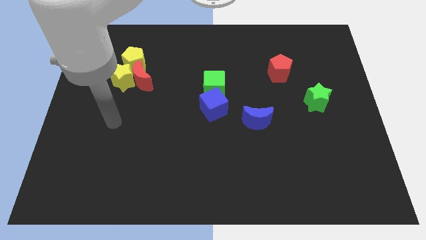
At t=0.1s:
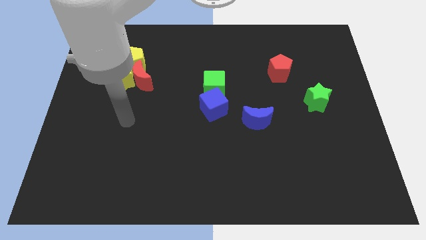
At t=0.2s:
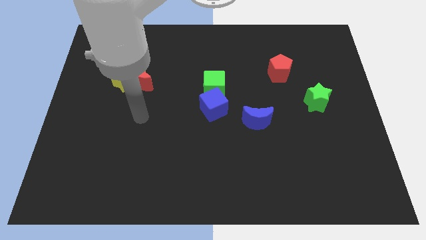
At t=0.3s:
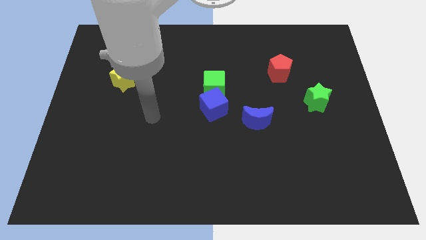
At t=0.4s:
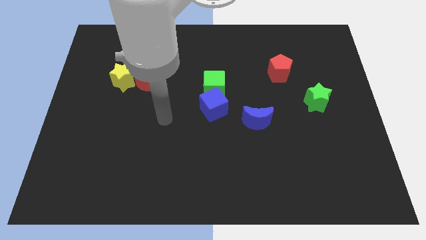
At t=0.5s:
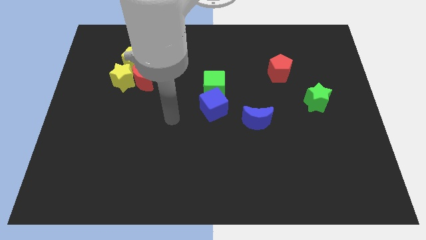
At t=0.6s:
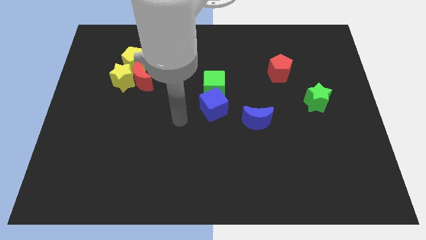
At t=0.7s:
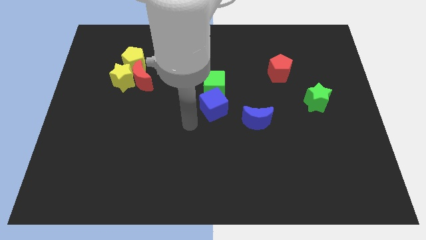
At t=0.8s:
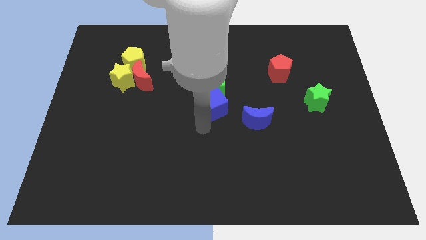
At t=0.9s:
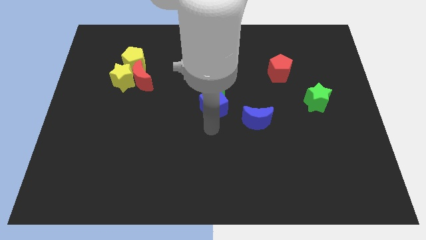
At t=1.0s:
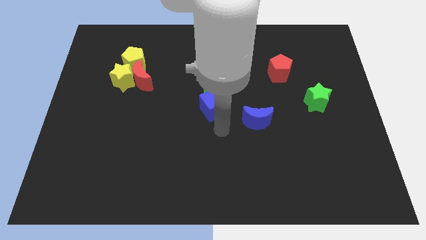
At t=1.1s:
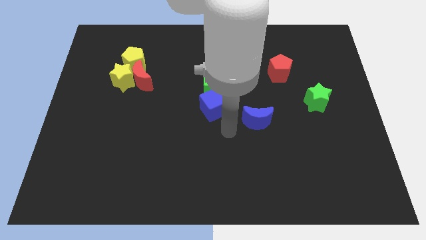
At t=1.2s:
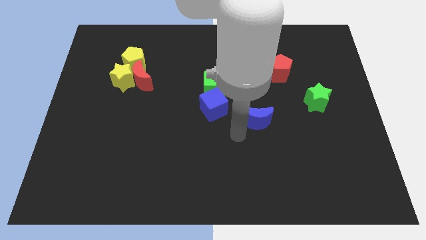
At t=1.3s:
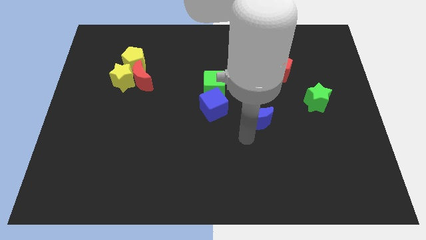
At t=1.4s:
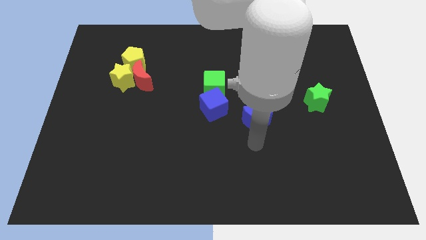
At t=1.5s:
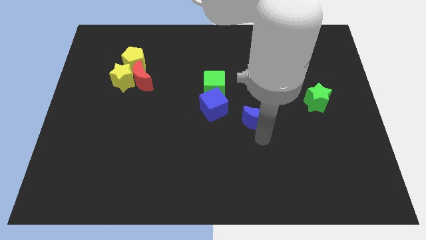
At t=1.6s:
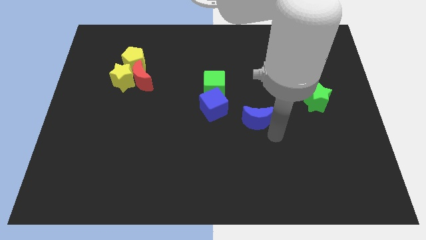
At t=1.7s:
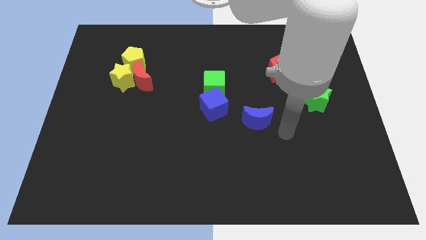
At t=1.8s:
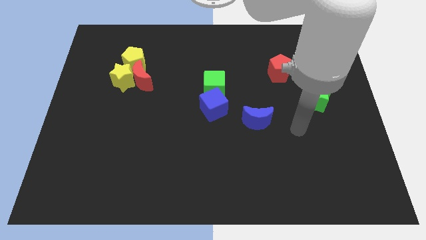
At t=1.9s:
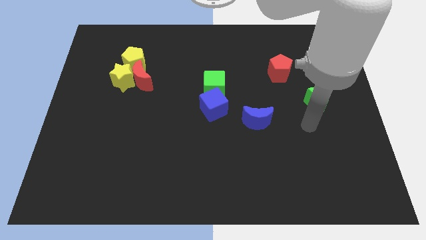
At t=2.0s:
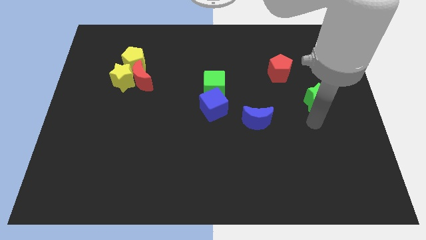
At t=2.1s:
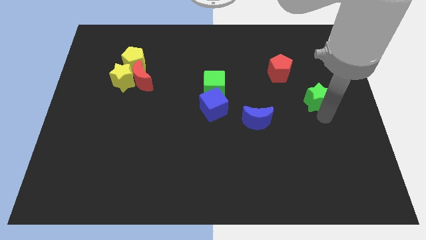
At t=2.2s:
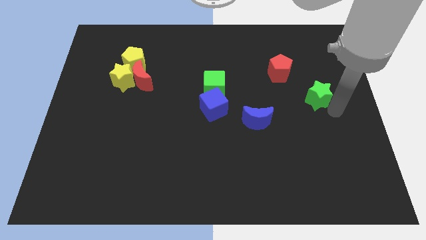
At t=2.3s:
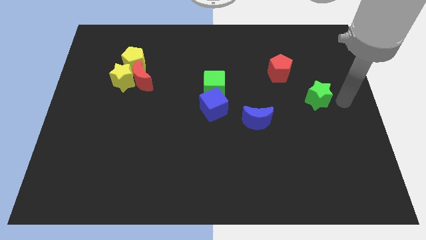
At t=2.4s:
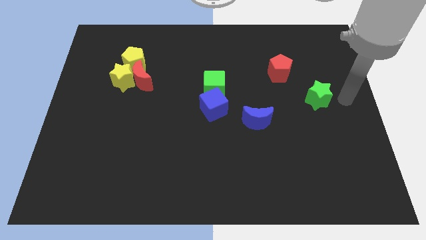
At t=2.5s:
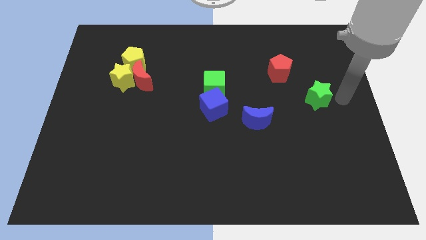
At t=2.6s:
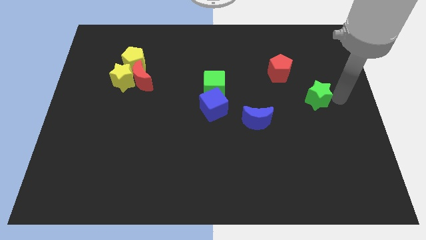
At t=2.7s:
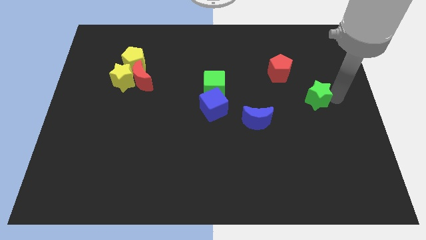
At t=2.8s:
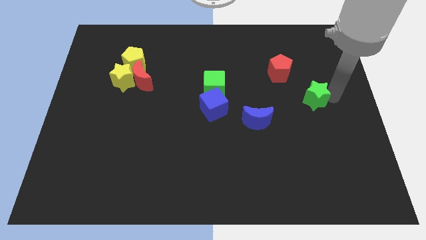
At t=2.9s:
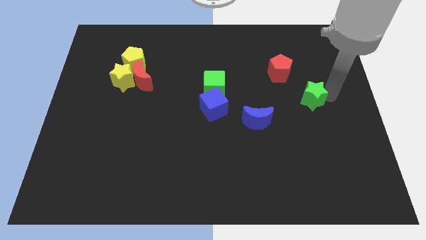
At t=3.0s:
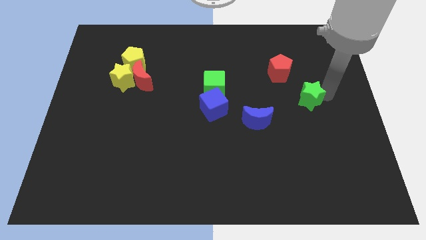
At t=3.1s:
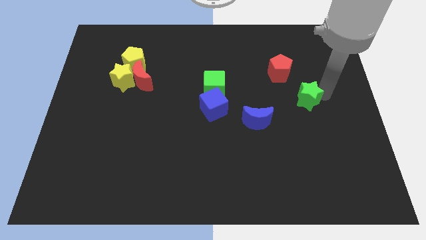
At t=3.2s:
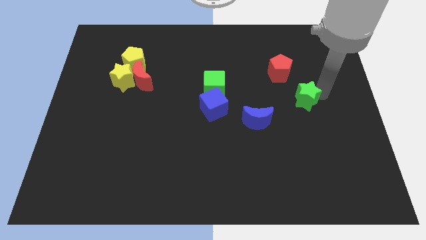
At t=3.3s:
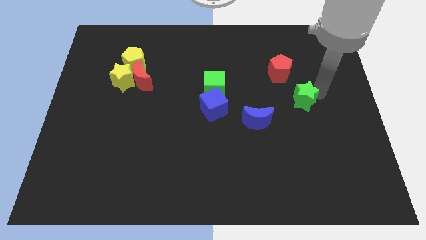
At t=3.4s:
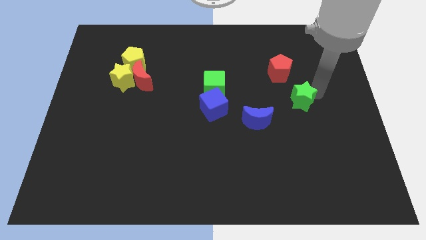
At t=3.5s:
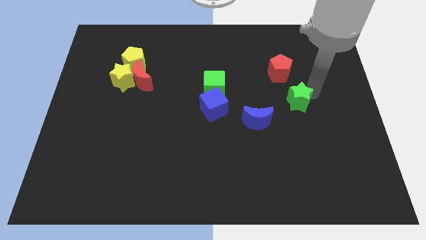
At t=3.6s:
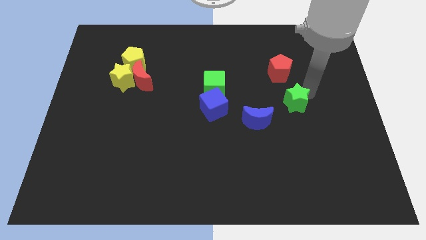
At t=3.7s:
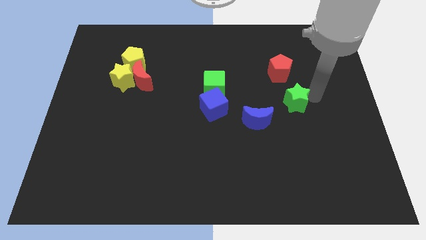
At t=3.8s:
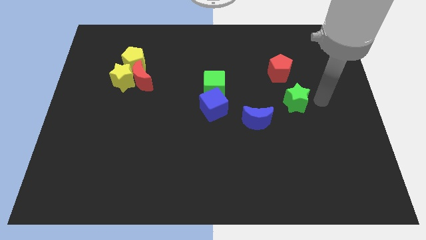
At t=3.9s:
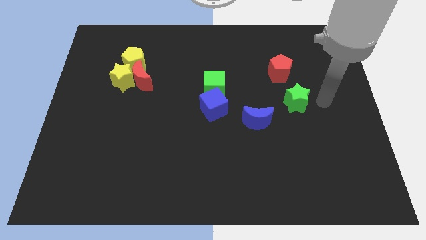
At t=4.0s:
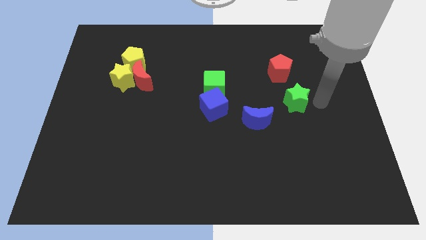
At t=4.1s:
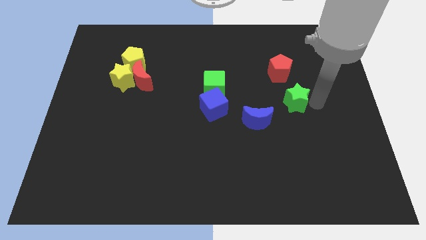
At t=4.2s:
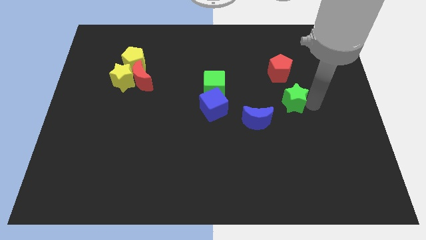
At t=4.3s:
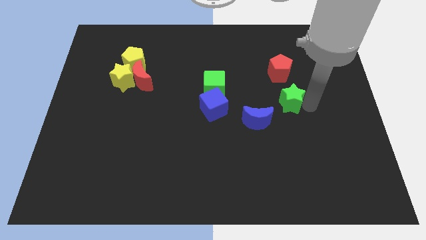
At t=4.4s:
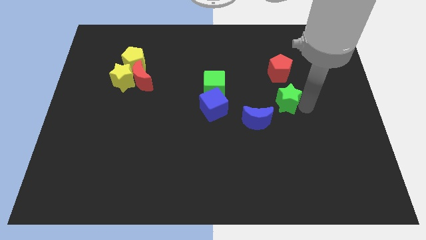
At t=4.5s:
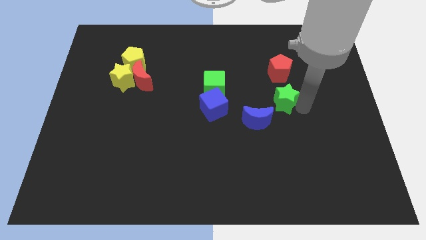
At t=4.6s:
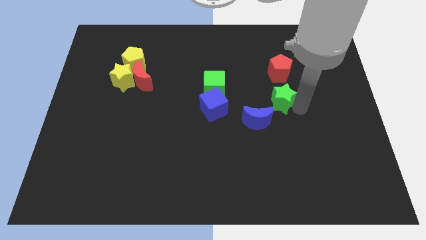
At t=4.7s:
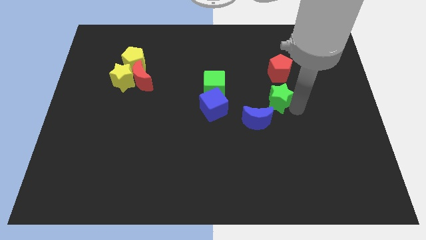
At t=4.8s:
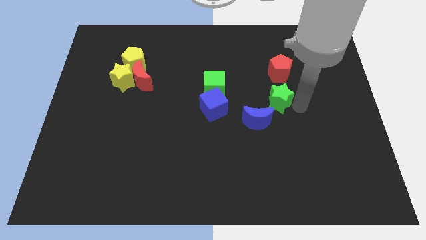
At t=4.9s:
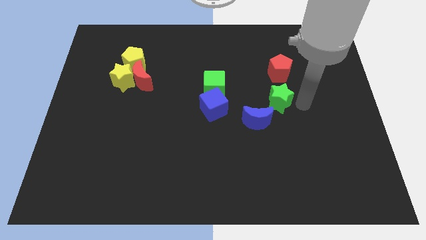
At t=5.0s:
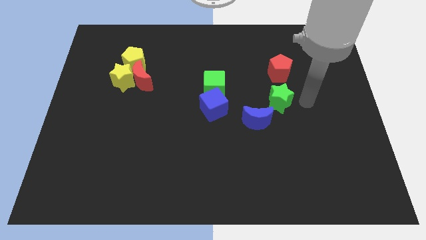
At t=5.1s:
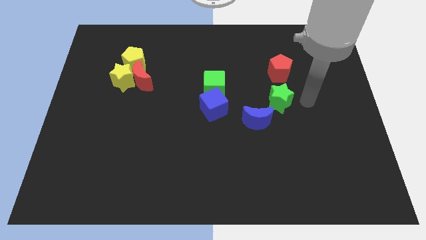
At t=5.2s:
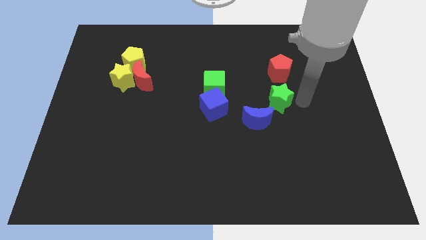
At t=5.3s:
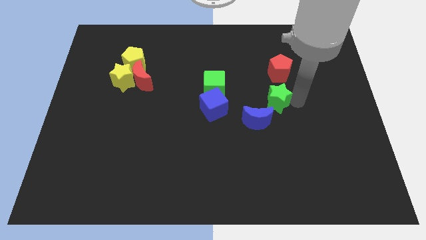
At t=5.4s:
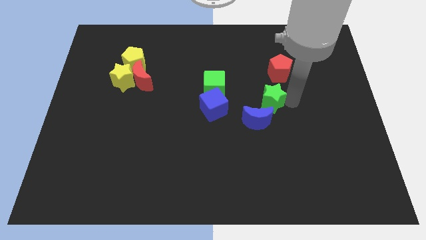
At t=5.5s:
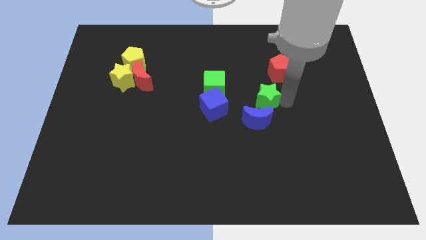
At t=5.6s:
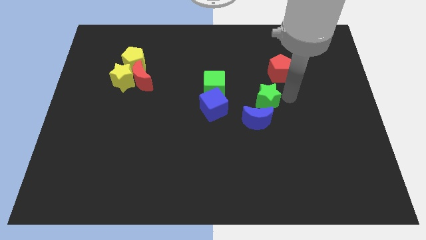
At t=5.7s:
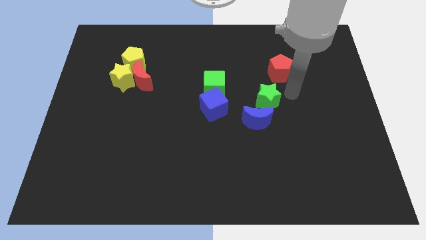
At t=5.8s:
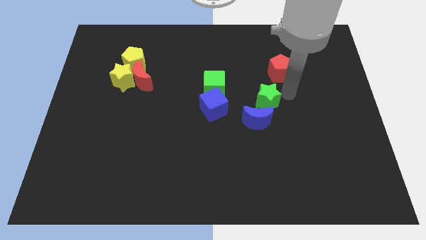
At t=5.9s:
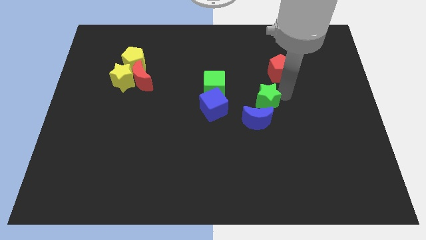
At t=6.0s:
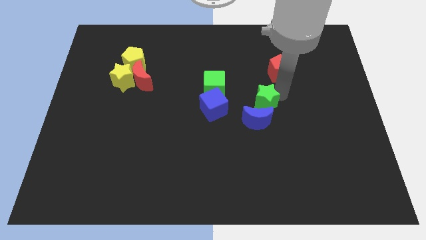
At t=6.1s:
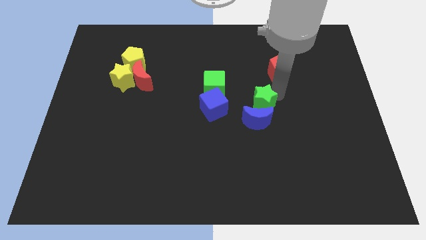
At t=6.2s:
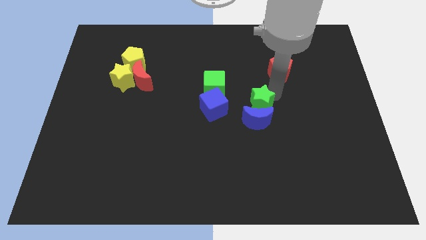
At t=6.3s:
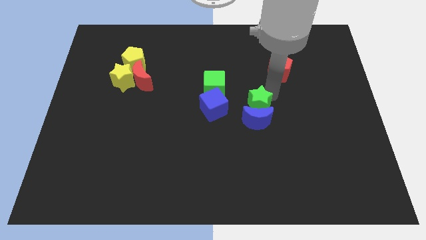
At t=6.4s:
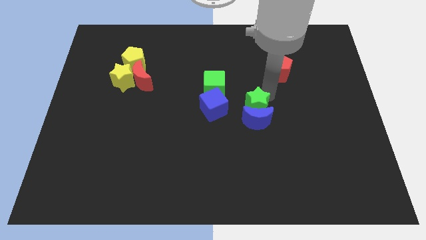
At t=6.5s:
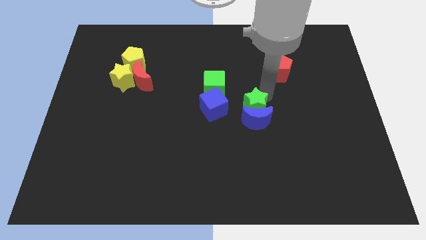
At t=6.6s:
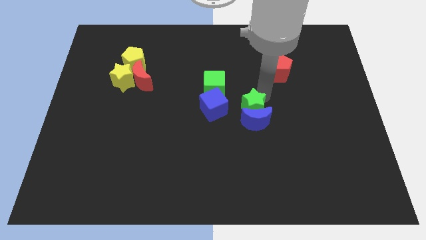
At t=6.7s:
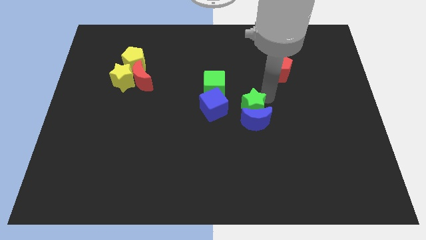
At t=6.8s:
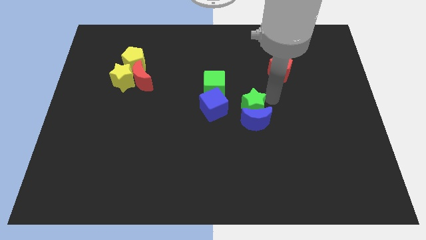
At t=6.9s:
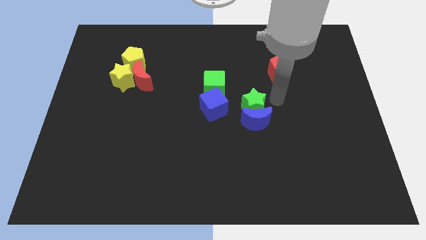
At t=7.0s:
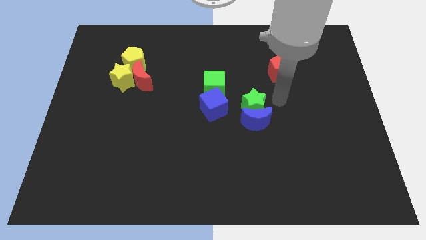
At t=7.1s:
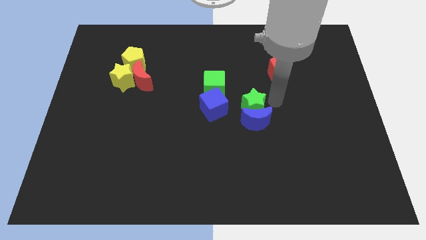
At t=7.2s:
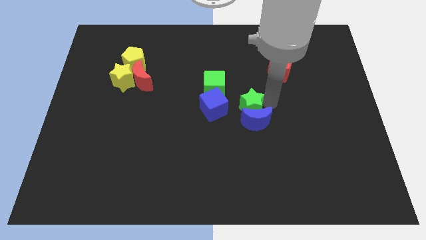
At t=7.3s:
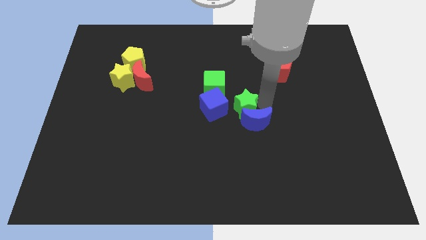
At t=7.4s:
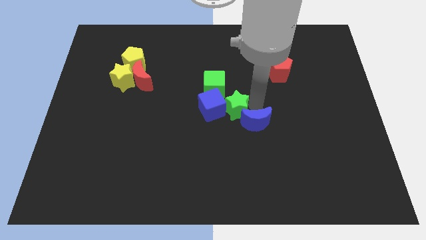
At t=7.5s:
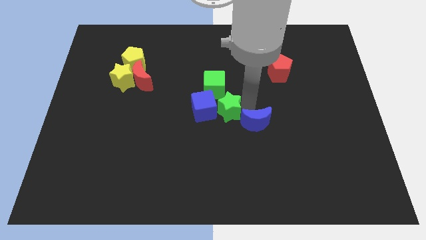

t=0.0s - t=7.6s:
push the green star to the bottom of the green cube
